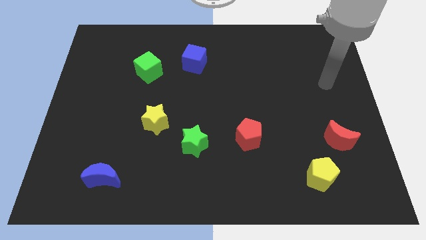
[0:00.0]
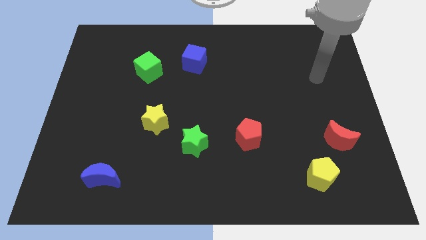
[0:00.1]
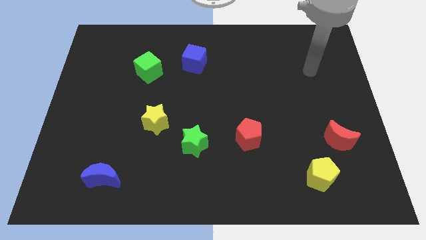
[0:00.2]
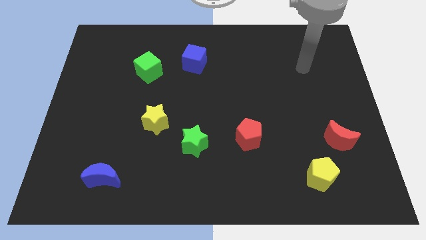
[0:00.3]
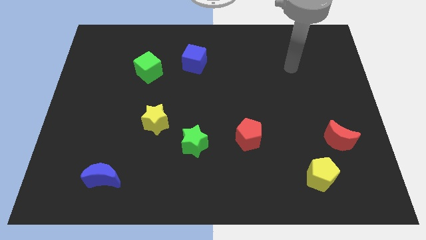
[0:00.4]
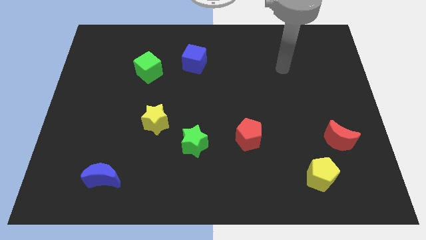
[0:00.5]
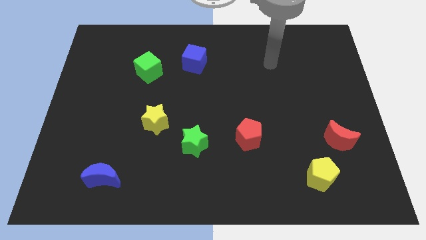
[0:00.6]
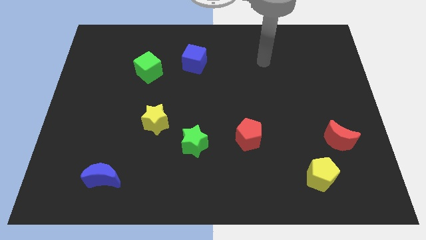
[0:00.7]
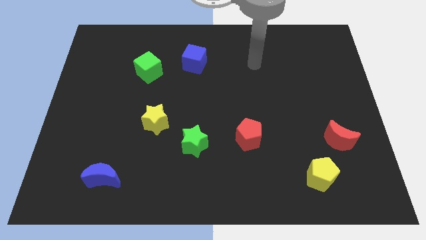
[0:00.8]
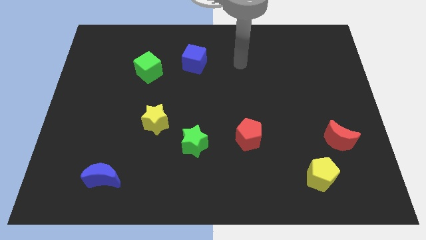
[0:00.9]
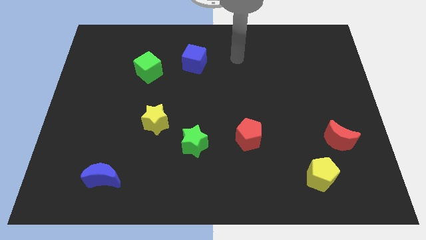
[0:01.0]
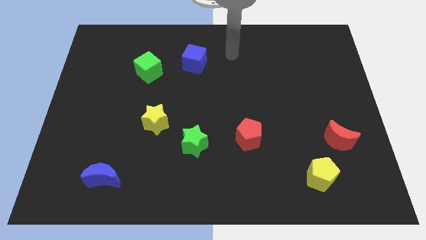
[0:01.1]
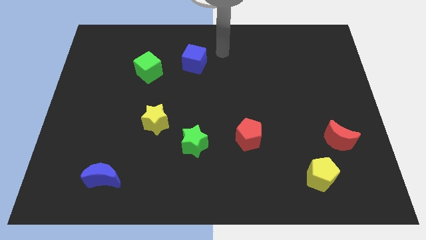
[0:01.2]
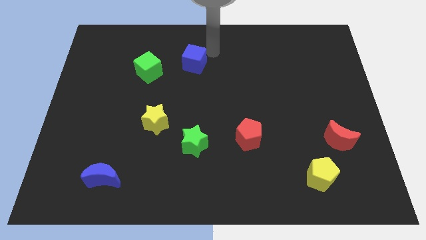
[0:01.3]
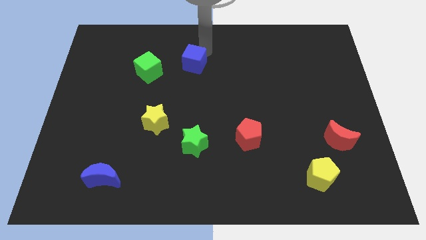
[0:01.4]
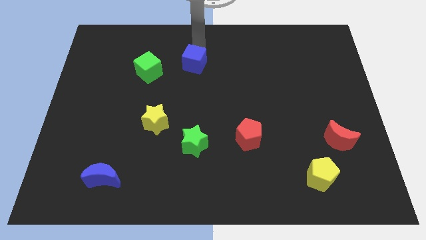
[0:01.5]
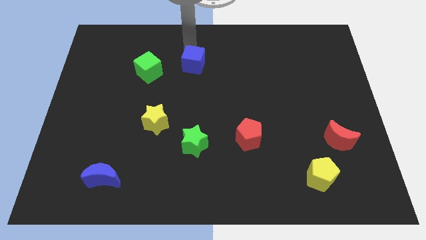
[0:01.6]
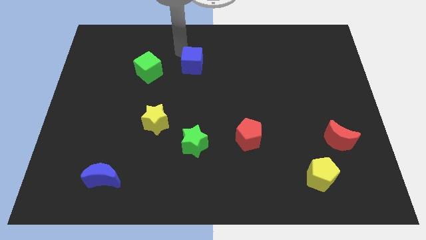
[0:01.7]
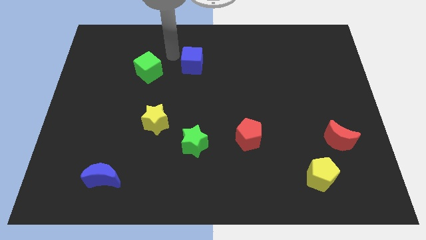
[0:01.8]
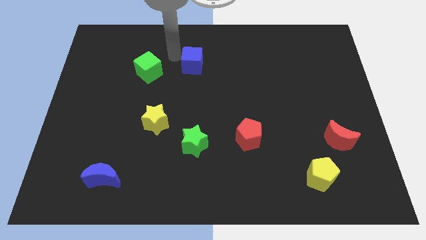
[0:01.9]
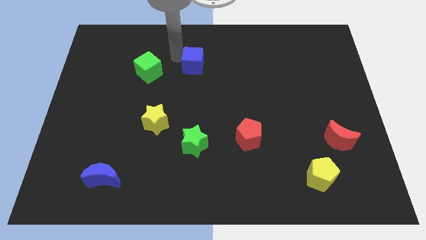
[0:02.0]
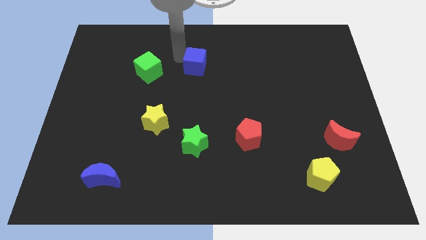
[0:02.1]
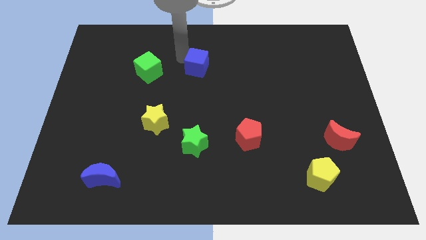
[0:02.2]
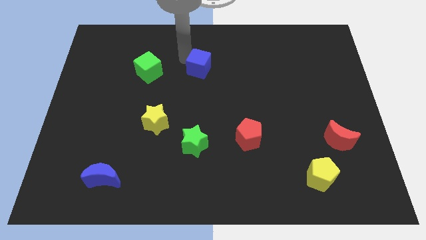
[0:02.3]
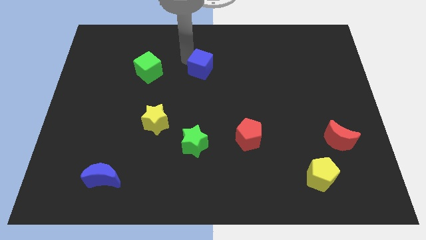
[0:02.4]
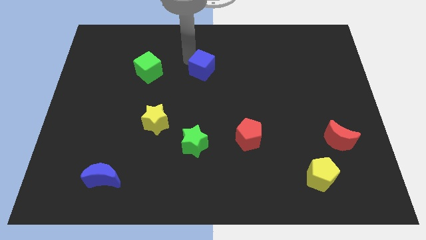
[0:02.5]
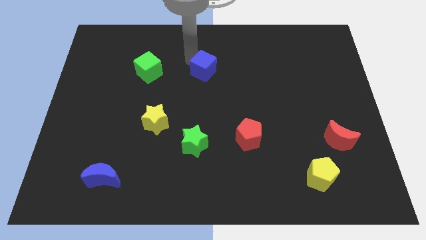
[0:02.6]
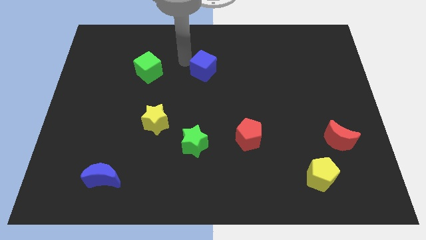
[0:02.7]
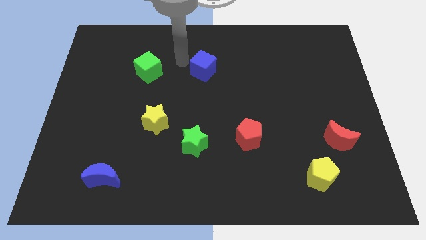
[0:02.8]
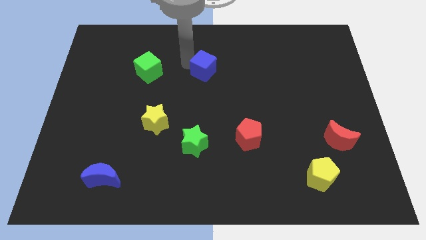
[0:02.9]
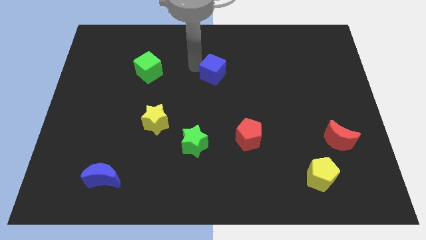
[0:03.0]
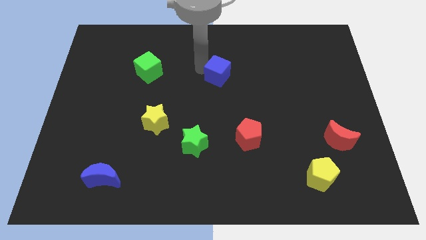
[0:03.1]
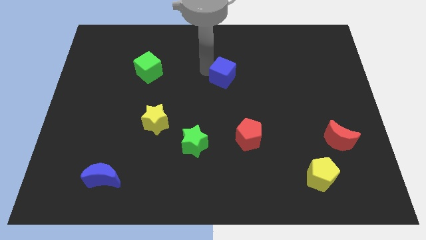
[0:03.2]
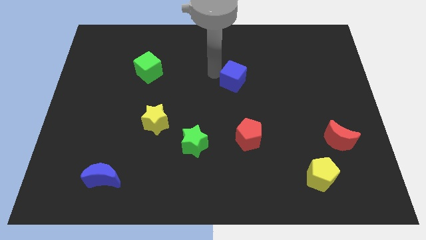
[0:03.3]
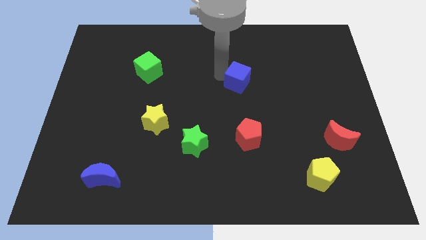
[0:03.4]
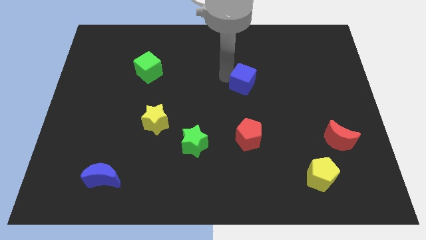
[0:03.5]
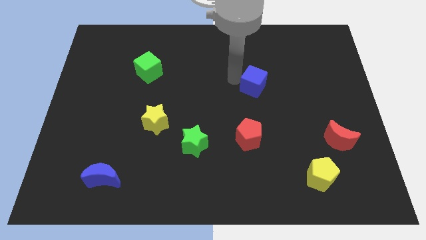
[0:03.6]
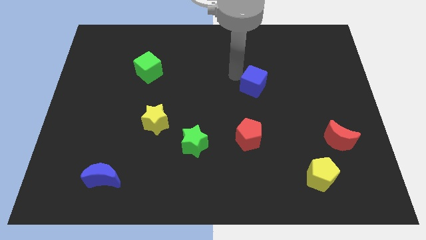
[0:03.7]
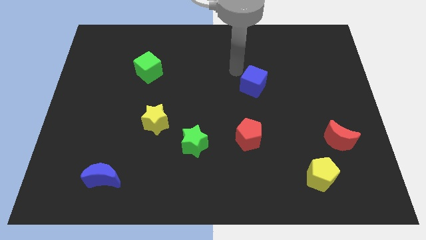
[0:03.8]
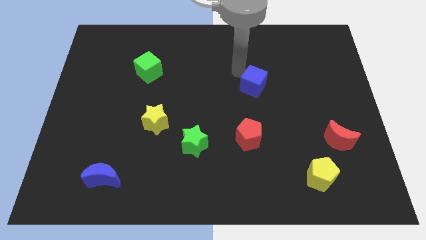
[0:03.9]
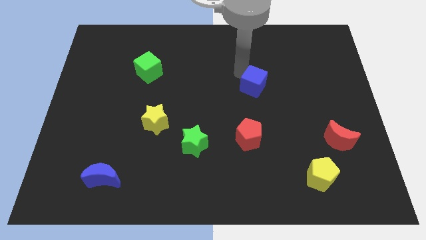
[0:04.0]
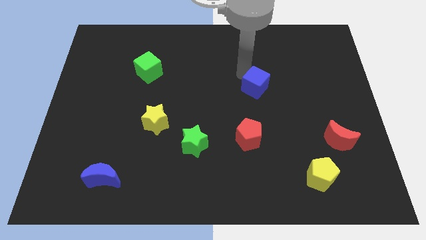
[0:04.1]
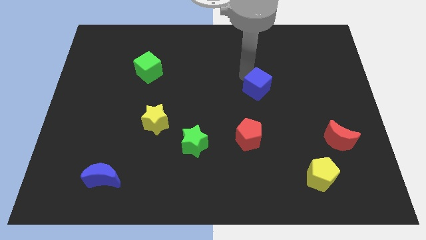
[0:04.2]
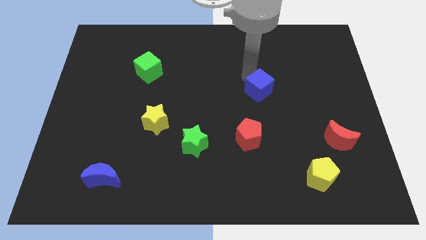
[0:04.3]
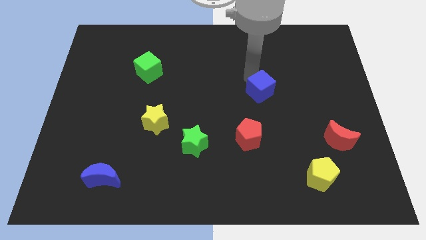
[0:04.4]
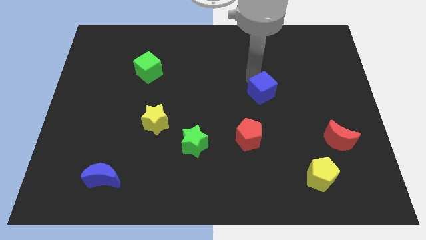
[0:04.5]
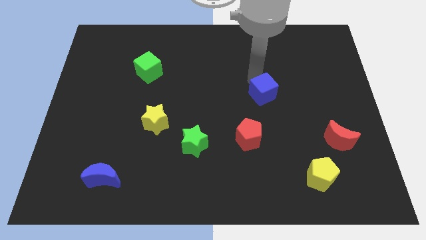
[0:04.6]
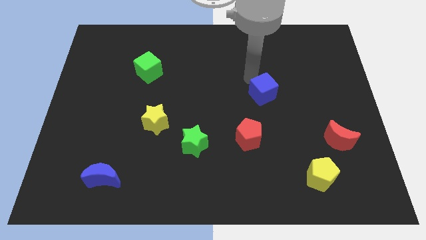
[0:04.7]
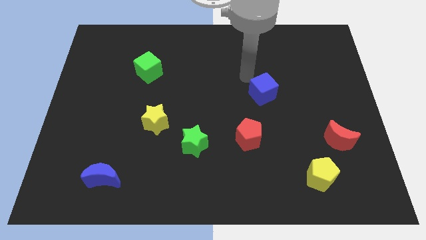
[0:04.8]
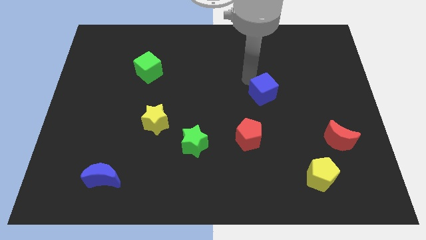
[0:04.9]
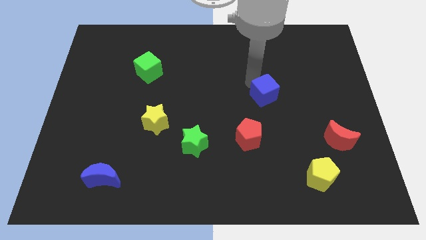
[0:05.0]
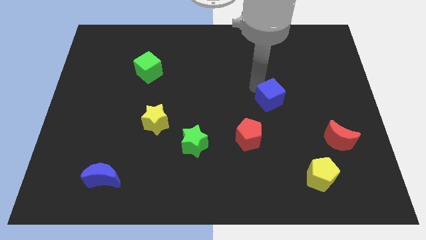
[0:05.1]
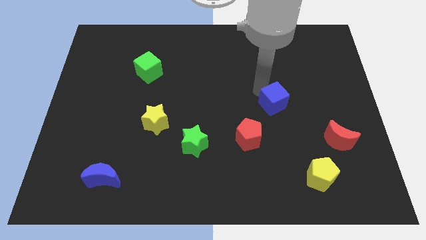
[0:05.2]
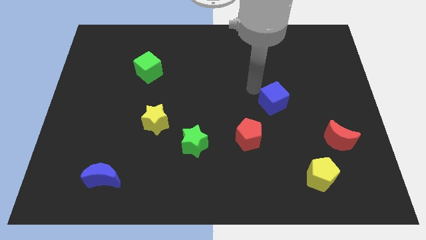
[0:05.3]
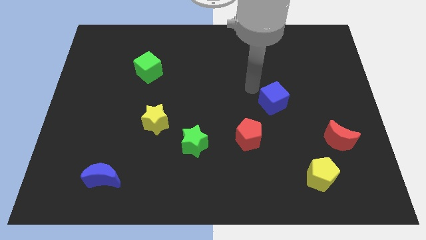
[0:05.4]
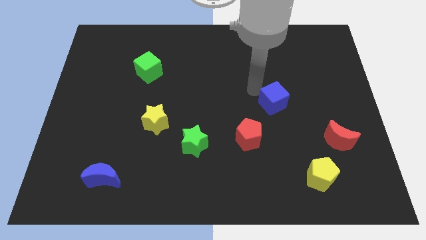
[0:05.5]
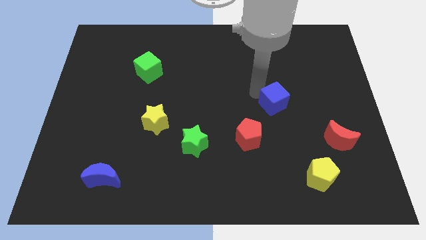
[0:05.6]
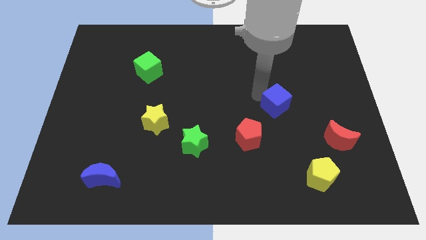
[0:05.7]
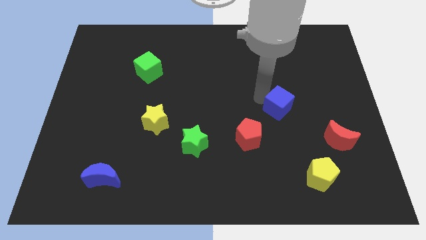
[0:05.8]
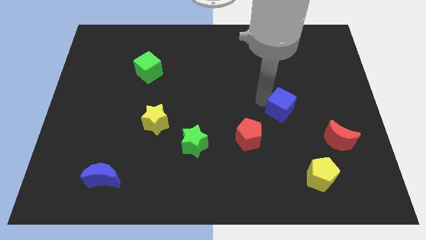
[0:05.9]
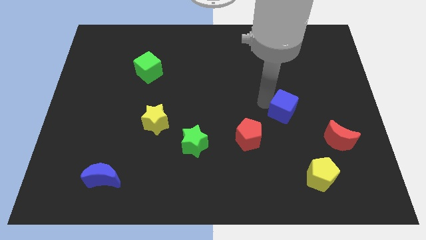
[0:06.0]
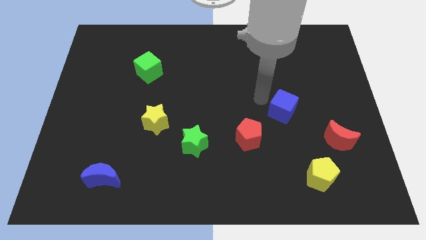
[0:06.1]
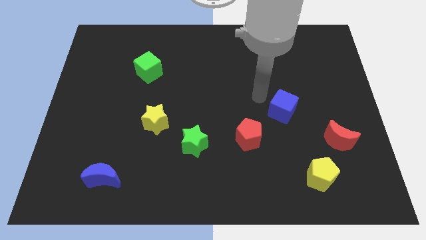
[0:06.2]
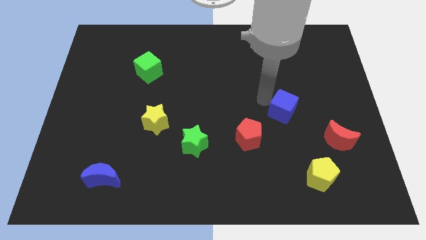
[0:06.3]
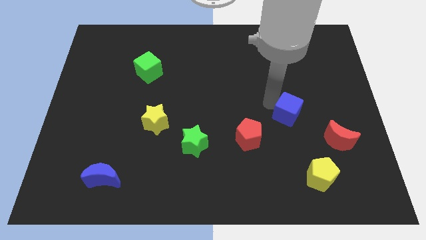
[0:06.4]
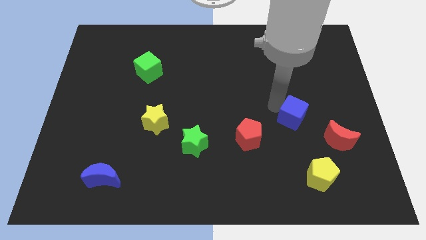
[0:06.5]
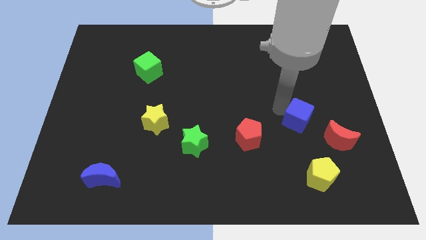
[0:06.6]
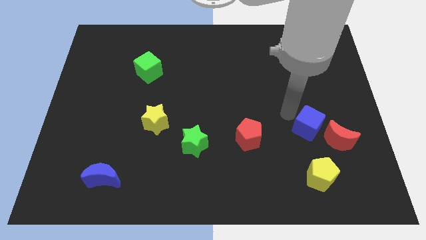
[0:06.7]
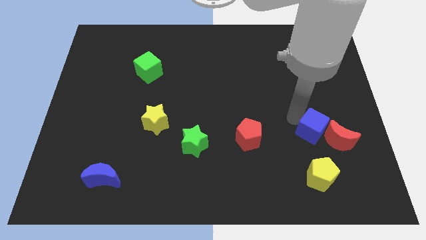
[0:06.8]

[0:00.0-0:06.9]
slide the blue cube towards the red moon

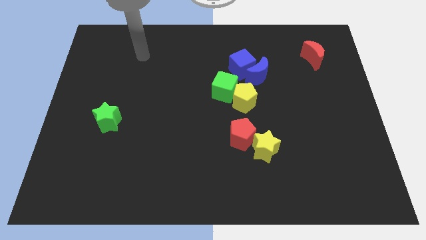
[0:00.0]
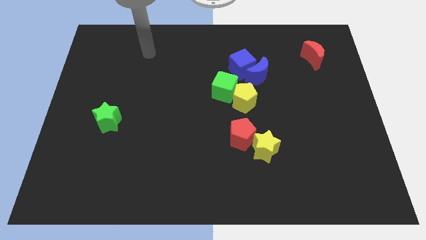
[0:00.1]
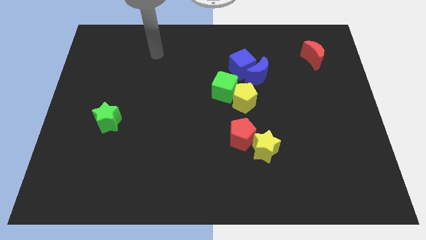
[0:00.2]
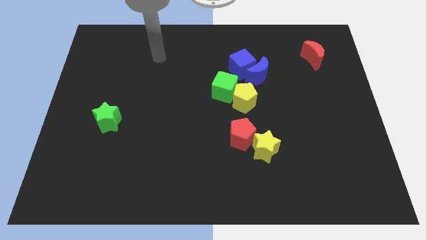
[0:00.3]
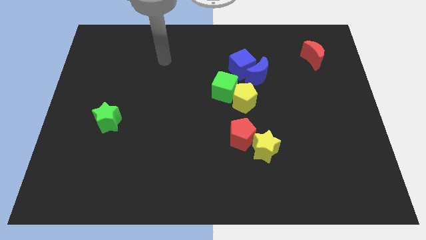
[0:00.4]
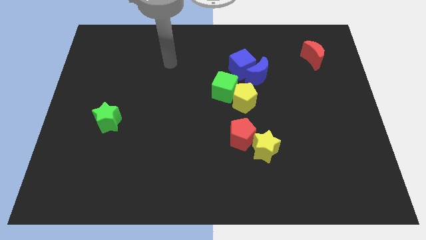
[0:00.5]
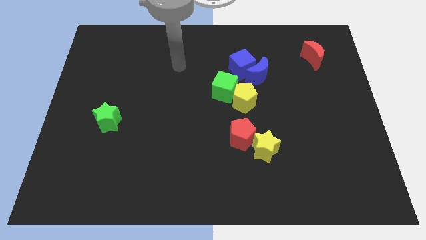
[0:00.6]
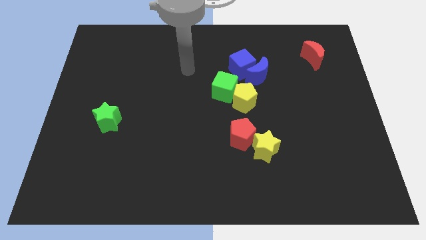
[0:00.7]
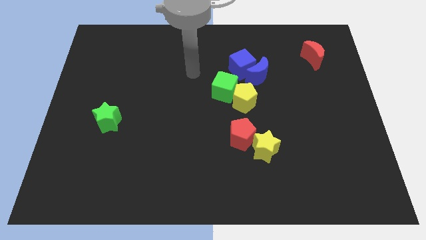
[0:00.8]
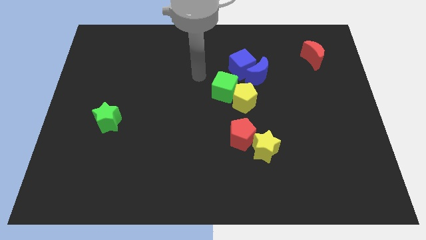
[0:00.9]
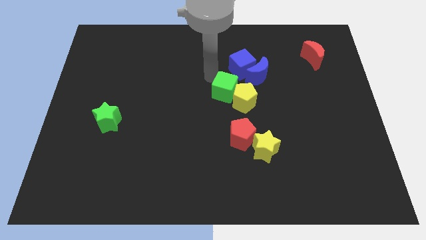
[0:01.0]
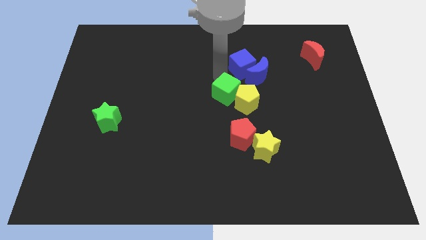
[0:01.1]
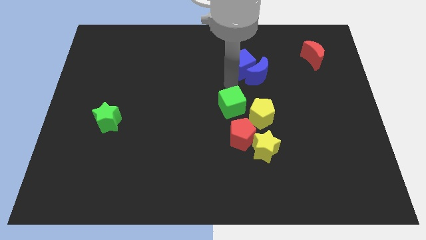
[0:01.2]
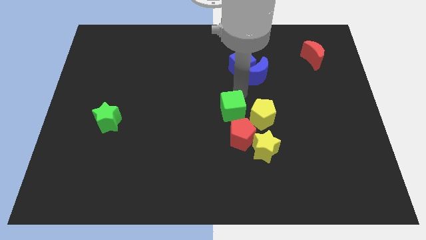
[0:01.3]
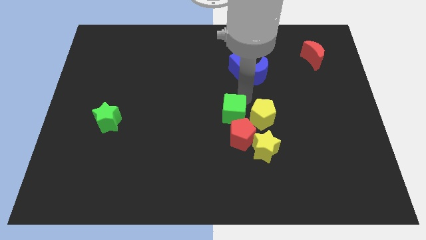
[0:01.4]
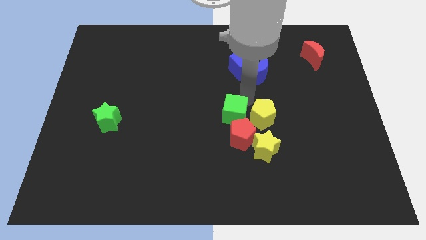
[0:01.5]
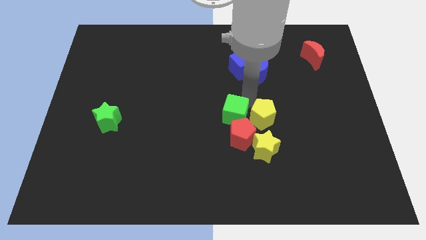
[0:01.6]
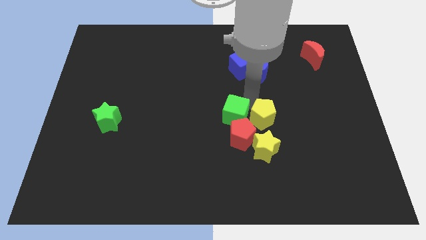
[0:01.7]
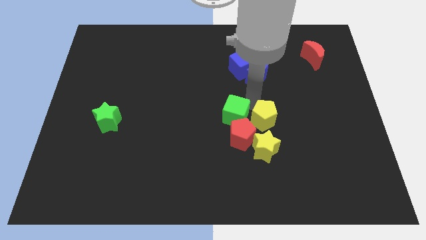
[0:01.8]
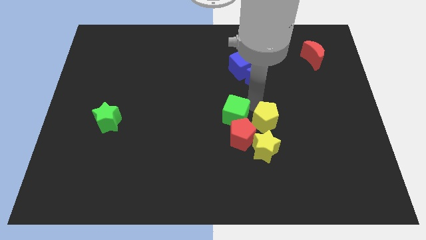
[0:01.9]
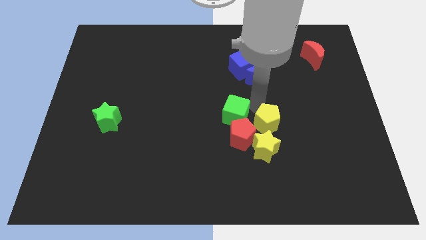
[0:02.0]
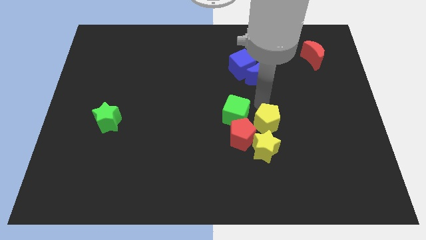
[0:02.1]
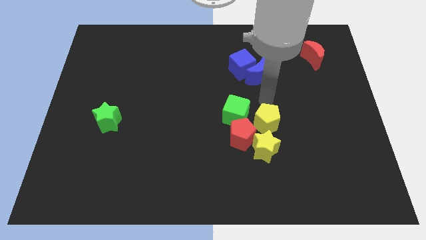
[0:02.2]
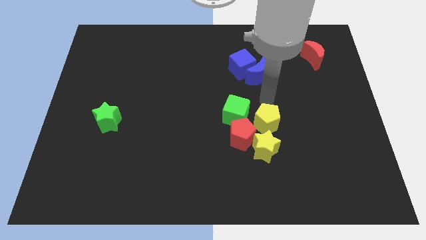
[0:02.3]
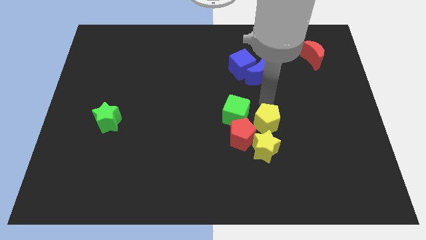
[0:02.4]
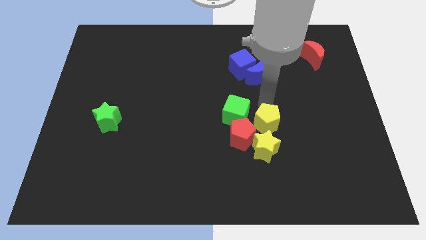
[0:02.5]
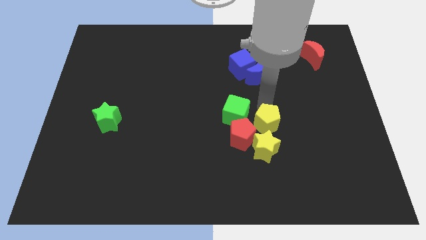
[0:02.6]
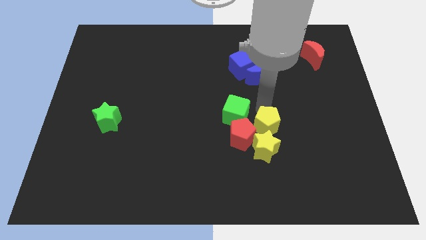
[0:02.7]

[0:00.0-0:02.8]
push the yellow pentagon next to the yellow star
